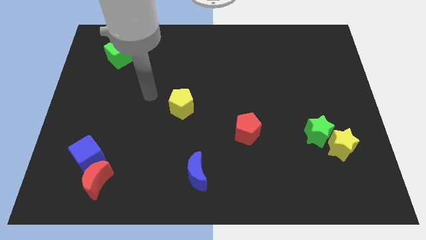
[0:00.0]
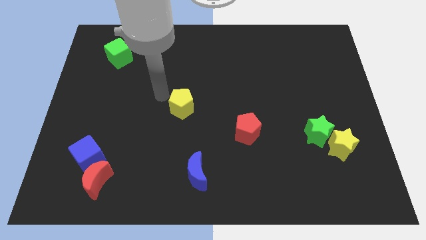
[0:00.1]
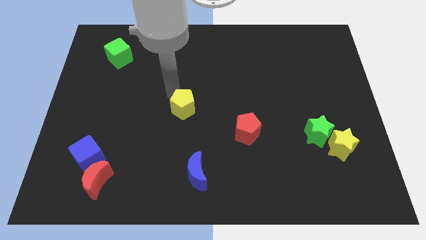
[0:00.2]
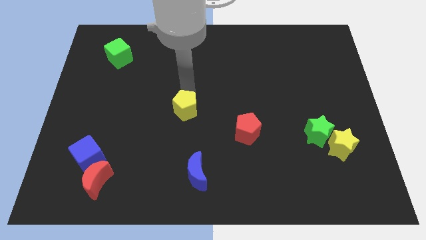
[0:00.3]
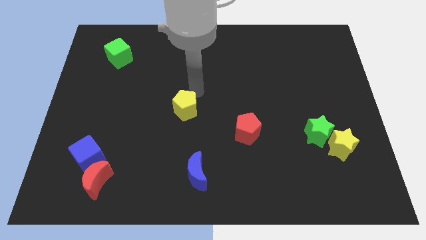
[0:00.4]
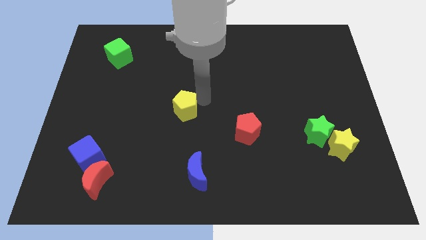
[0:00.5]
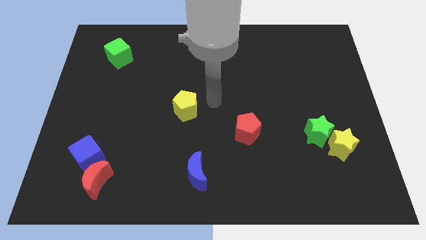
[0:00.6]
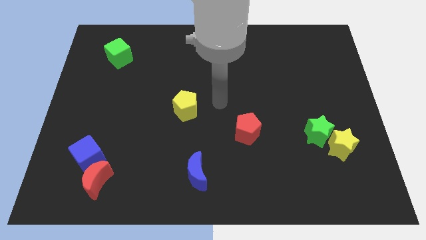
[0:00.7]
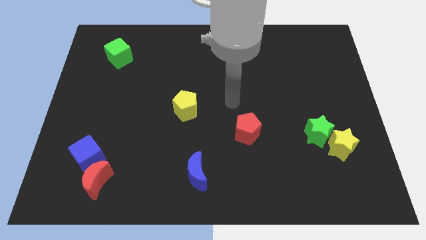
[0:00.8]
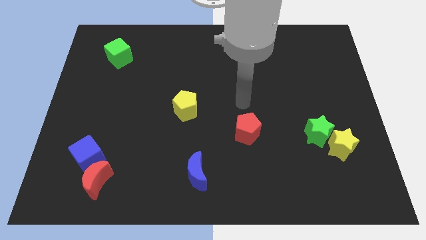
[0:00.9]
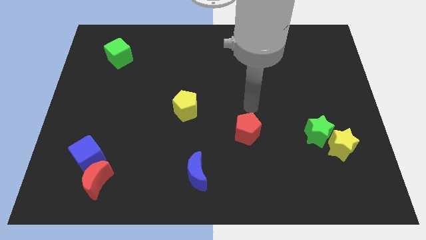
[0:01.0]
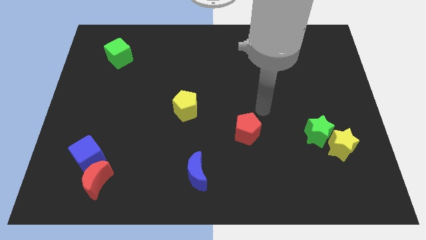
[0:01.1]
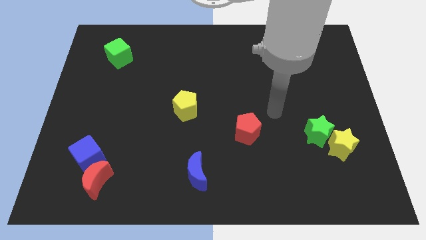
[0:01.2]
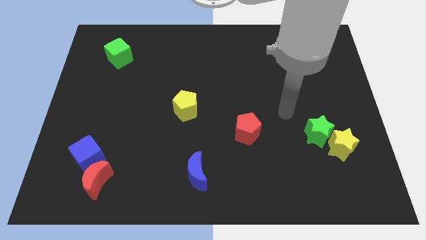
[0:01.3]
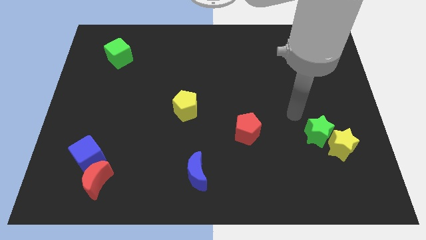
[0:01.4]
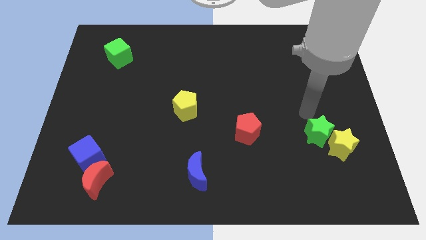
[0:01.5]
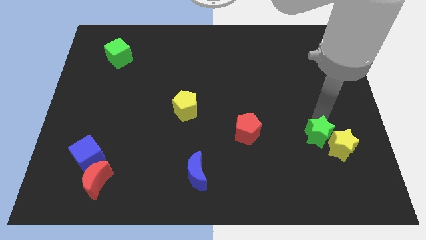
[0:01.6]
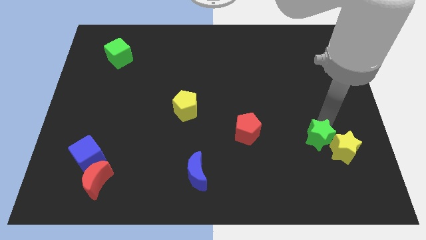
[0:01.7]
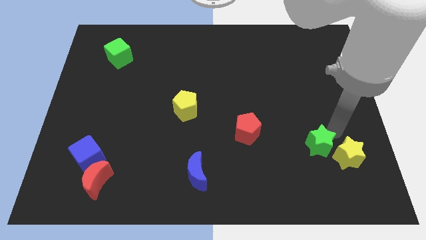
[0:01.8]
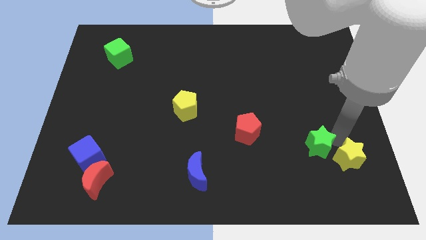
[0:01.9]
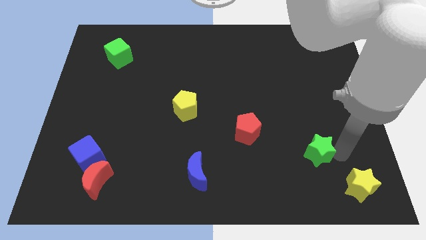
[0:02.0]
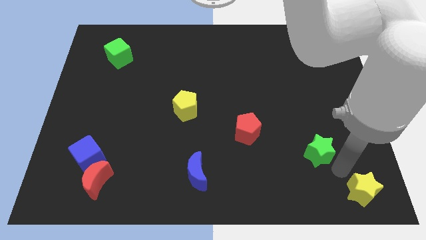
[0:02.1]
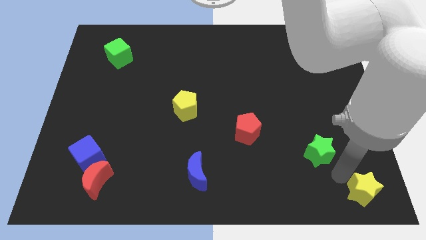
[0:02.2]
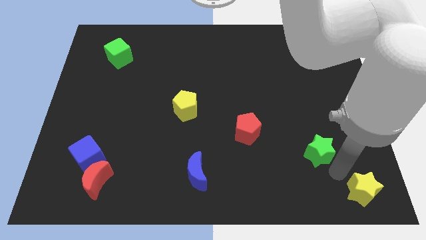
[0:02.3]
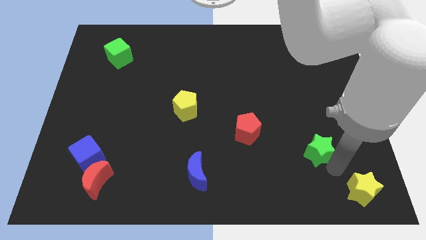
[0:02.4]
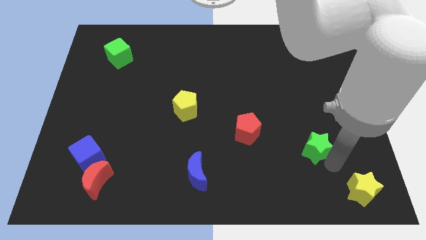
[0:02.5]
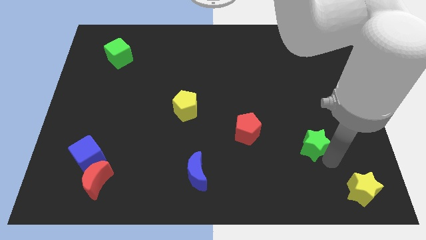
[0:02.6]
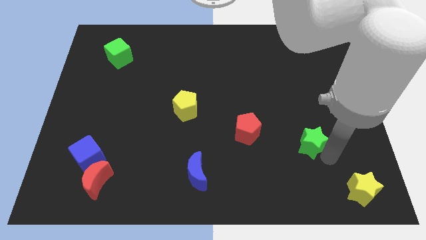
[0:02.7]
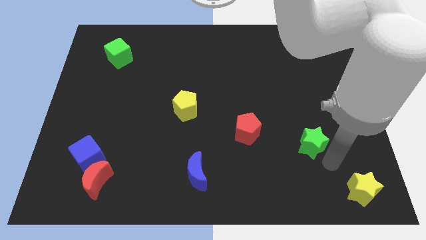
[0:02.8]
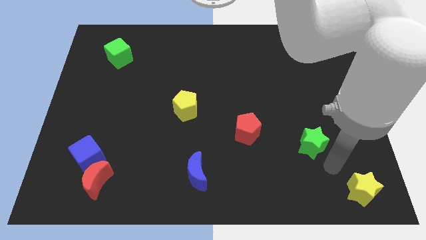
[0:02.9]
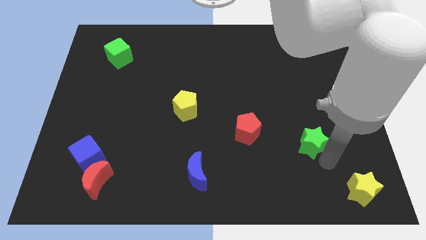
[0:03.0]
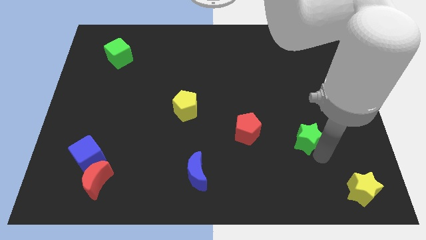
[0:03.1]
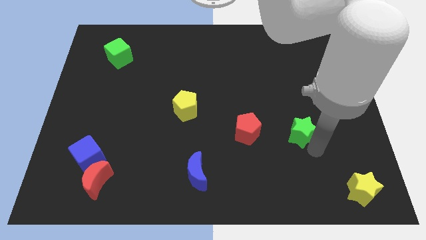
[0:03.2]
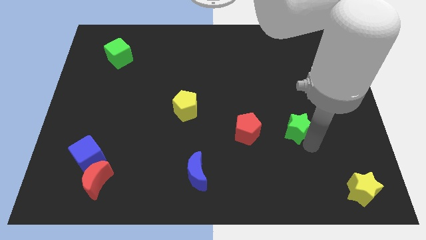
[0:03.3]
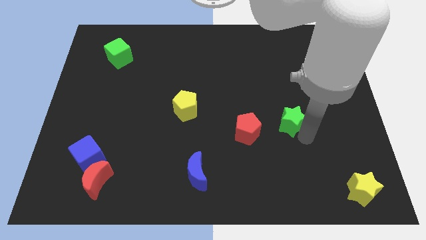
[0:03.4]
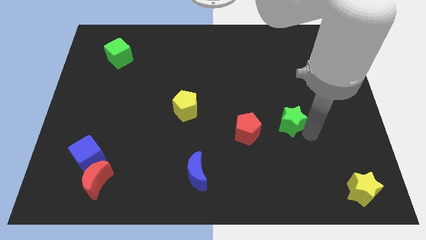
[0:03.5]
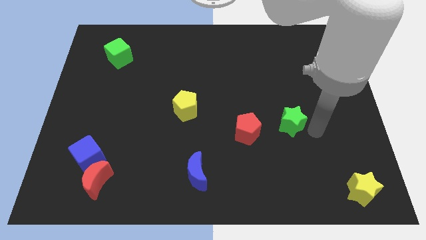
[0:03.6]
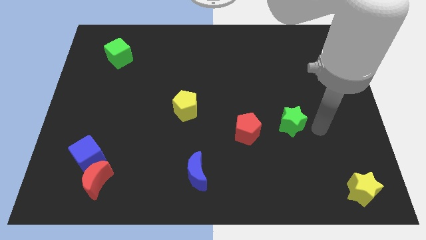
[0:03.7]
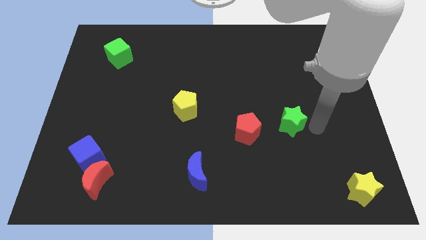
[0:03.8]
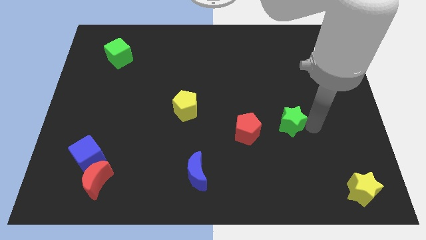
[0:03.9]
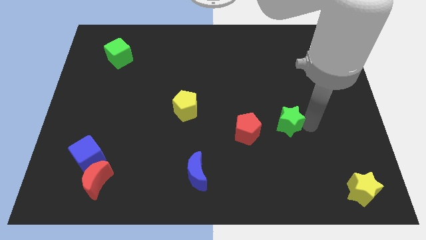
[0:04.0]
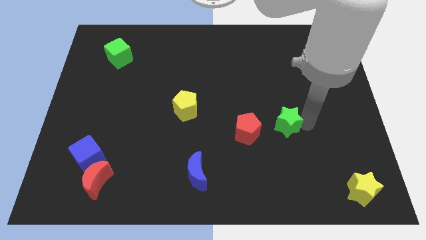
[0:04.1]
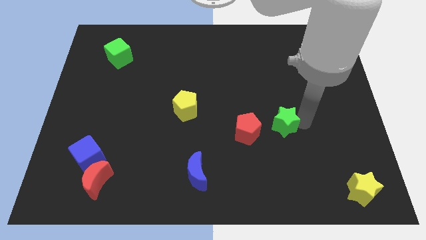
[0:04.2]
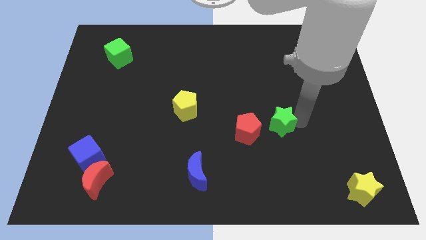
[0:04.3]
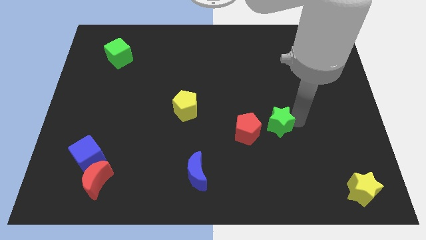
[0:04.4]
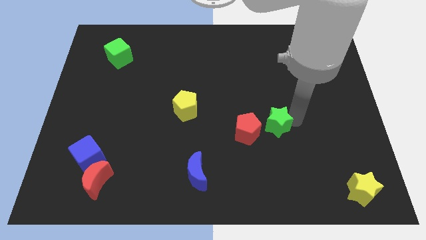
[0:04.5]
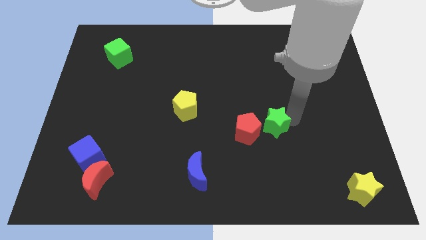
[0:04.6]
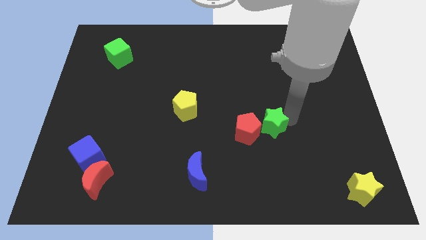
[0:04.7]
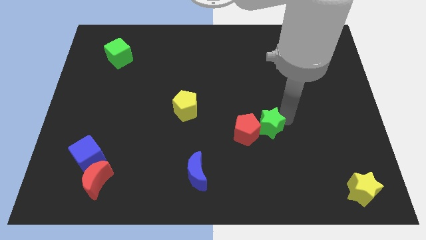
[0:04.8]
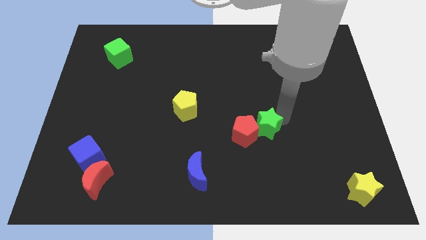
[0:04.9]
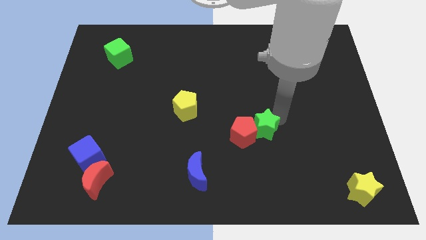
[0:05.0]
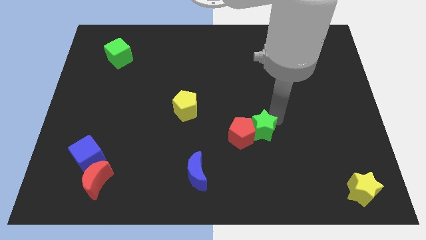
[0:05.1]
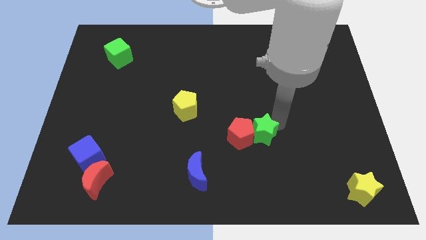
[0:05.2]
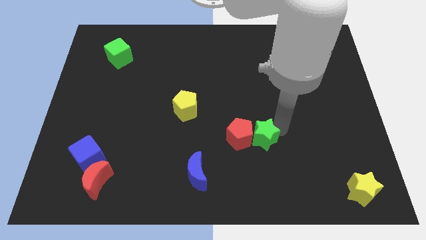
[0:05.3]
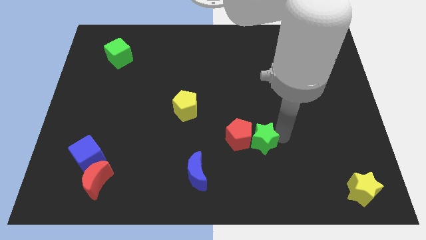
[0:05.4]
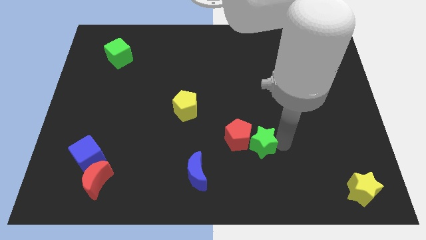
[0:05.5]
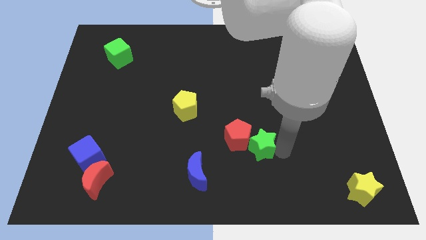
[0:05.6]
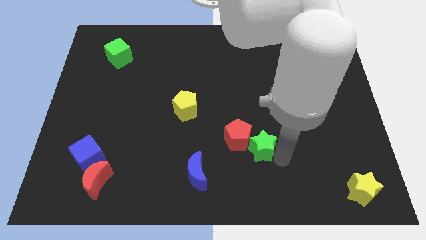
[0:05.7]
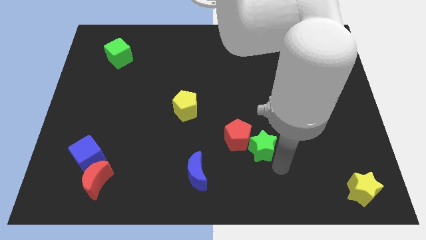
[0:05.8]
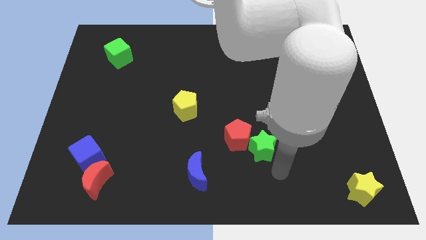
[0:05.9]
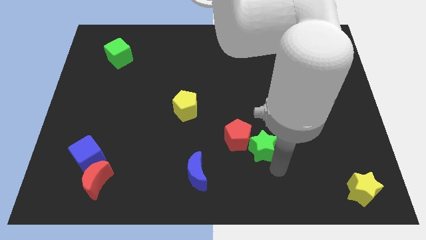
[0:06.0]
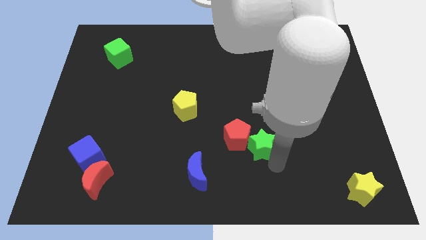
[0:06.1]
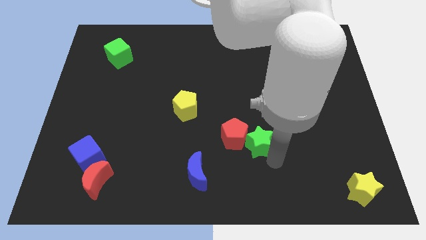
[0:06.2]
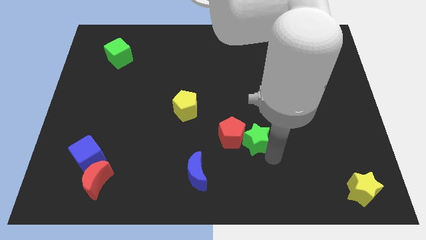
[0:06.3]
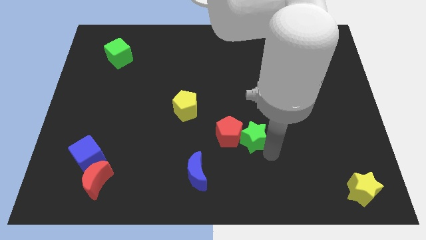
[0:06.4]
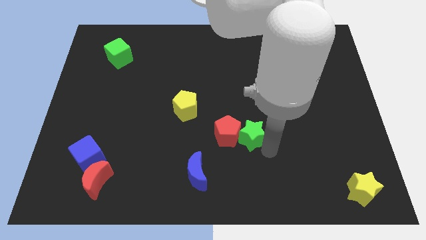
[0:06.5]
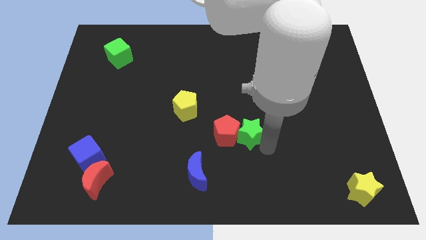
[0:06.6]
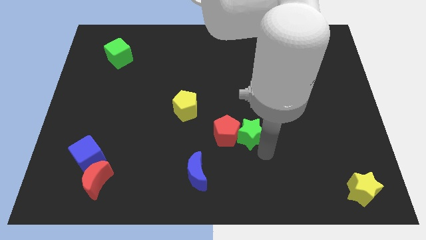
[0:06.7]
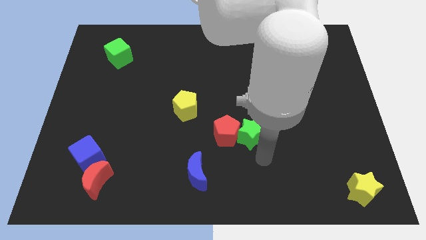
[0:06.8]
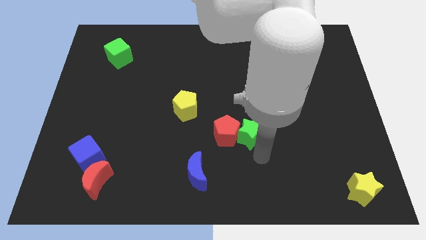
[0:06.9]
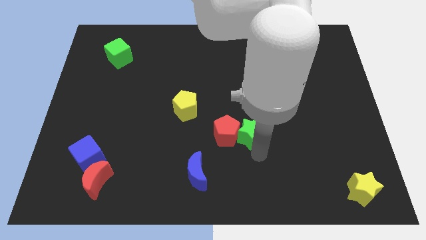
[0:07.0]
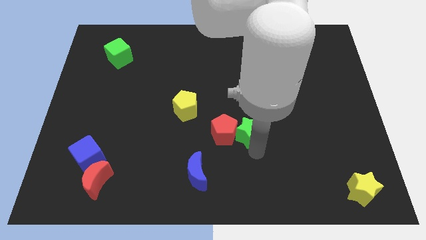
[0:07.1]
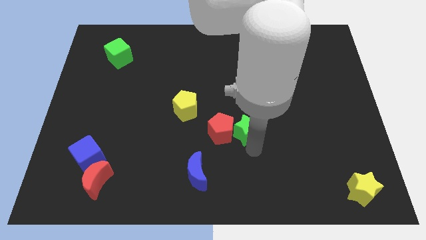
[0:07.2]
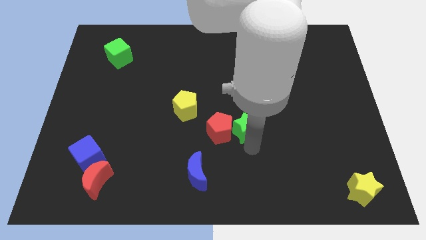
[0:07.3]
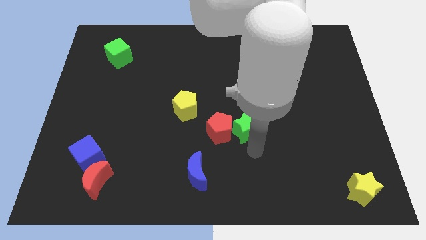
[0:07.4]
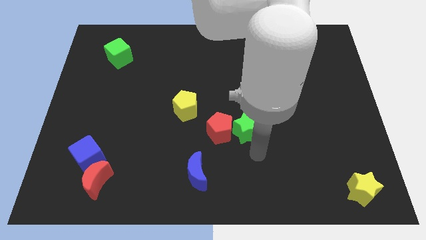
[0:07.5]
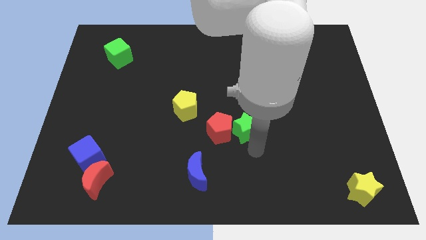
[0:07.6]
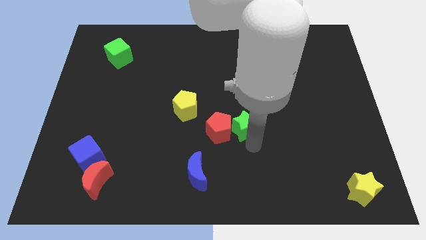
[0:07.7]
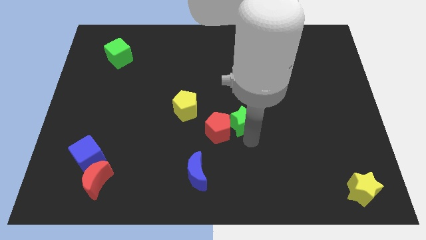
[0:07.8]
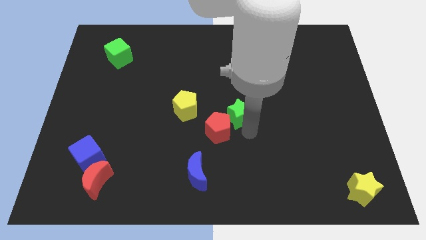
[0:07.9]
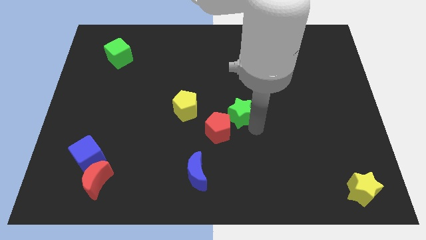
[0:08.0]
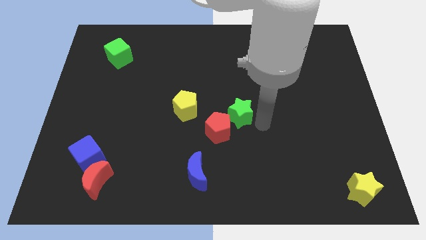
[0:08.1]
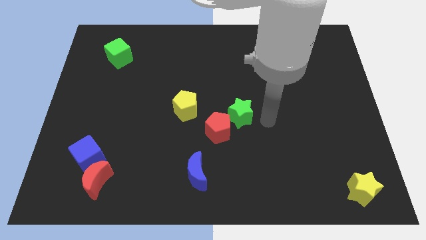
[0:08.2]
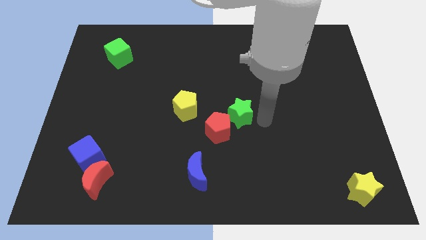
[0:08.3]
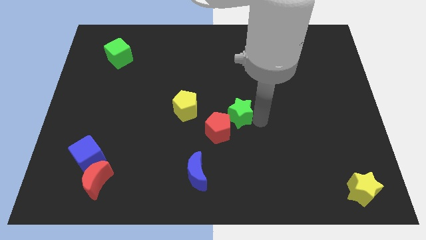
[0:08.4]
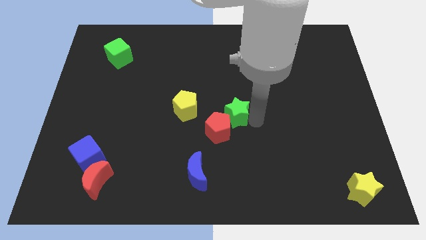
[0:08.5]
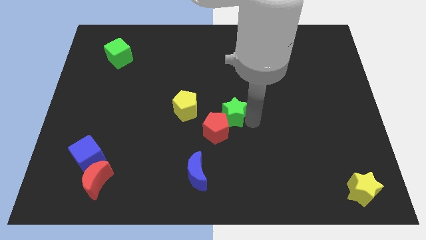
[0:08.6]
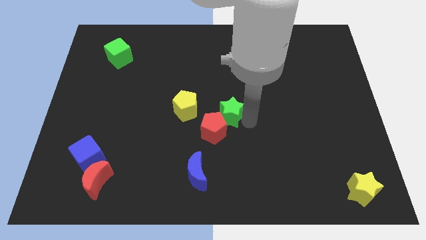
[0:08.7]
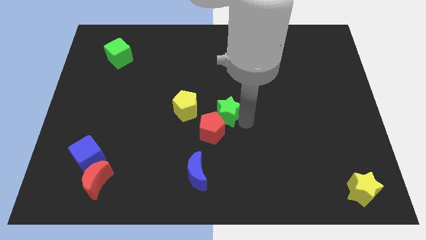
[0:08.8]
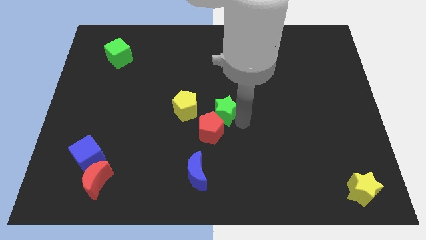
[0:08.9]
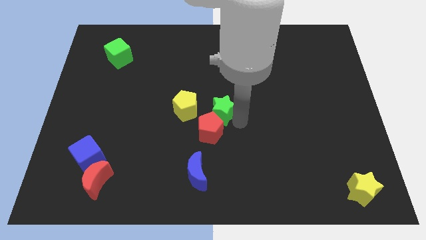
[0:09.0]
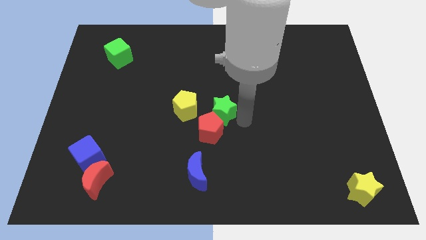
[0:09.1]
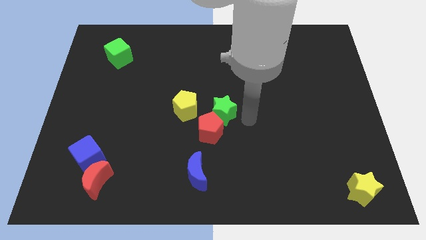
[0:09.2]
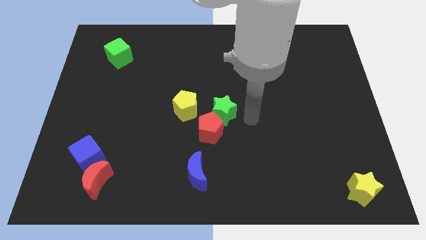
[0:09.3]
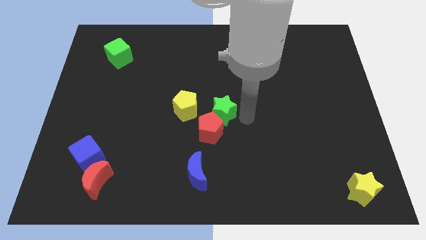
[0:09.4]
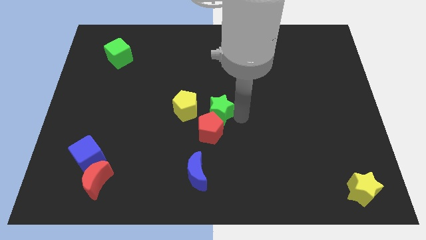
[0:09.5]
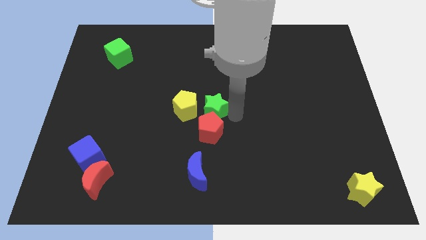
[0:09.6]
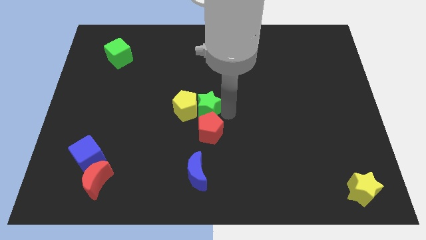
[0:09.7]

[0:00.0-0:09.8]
move the green star to the yellow pentagon
